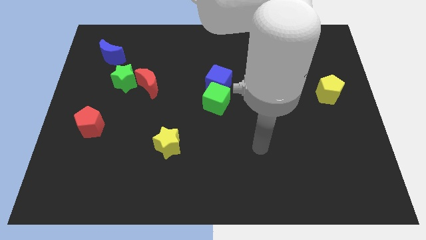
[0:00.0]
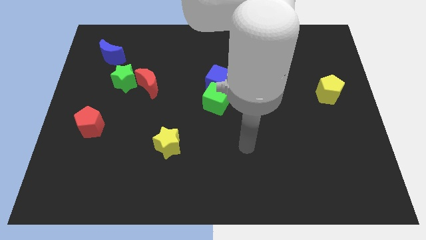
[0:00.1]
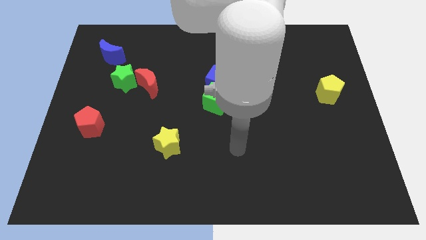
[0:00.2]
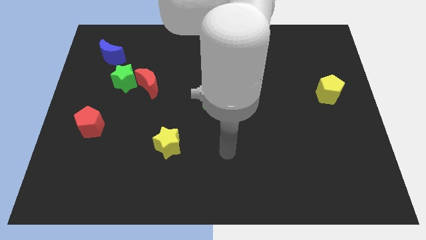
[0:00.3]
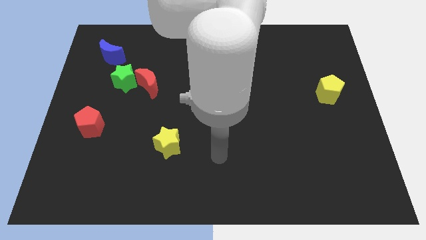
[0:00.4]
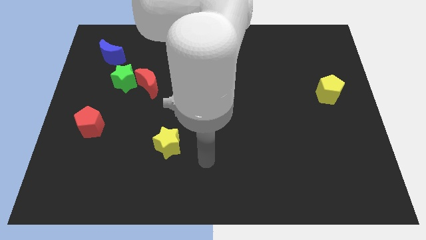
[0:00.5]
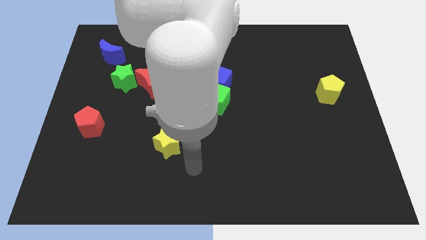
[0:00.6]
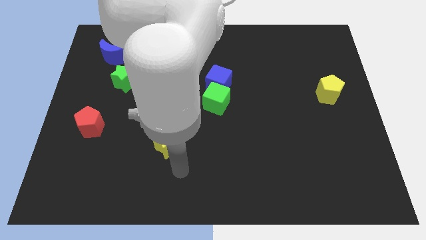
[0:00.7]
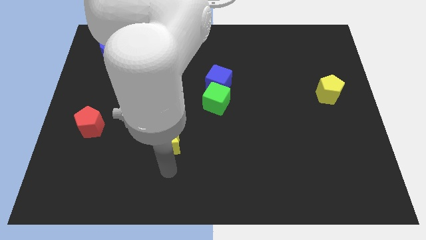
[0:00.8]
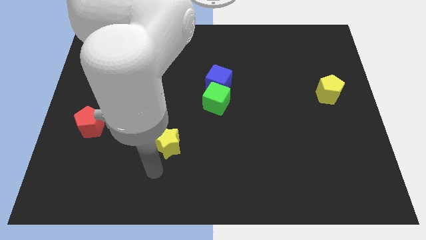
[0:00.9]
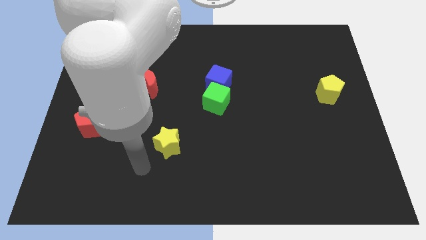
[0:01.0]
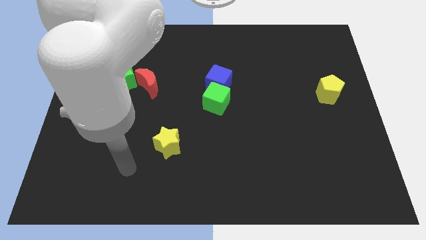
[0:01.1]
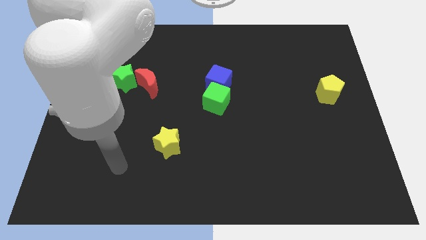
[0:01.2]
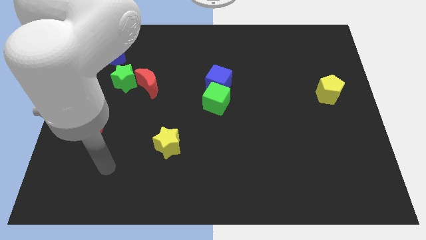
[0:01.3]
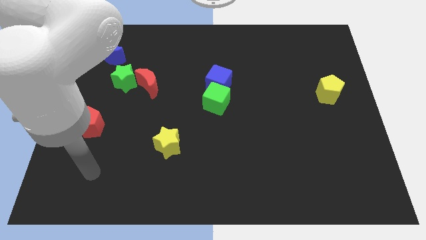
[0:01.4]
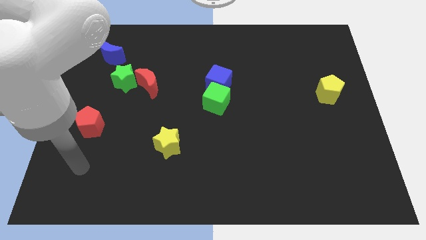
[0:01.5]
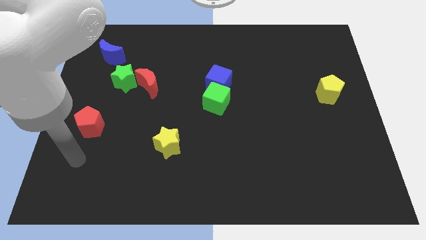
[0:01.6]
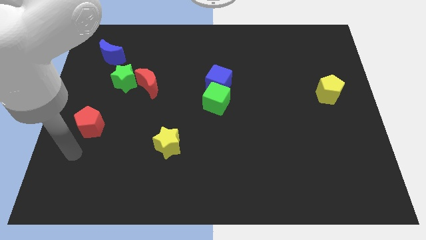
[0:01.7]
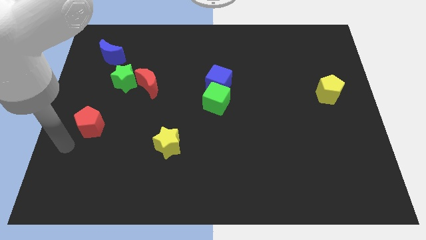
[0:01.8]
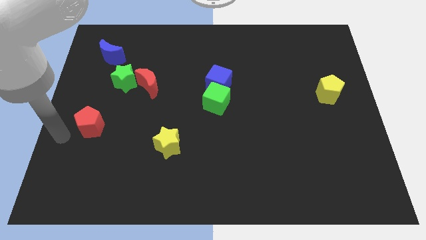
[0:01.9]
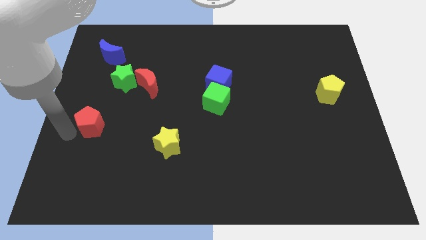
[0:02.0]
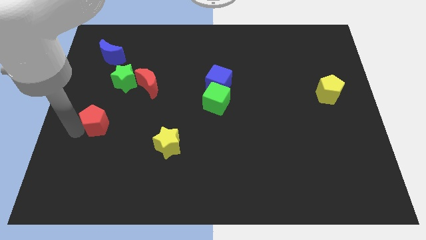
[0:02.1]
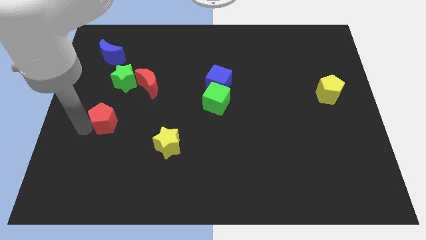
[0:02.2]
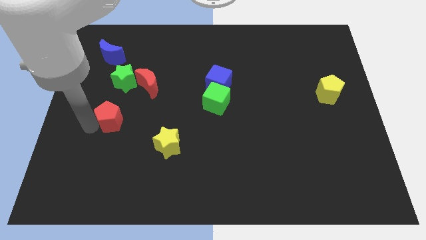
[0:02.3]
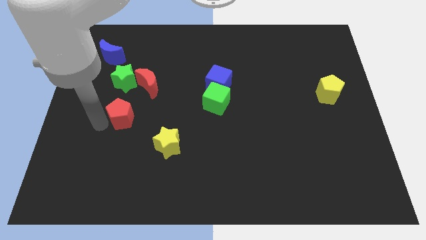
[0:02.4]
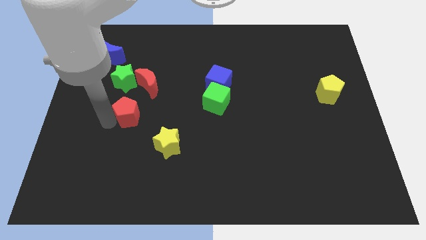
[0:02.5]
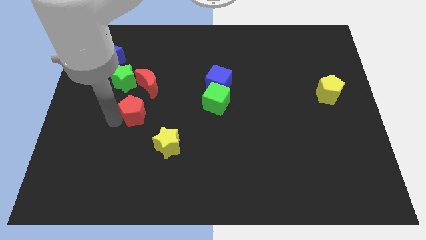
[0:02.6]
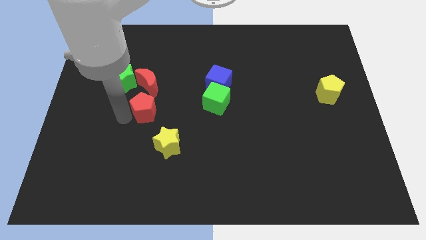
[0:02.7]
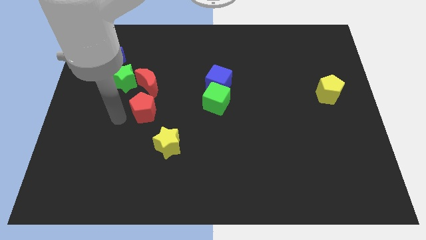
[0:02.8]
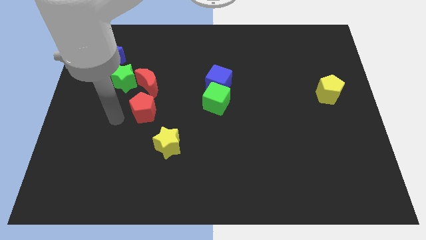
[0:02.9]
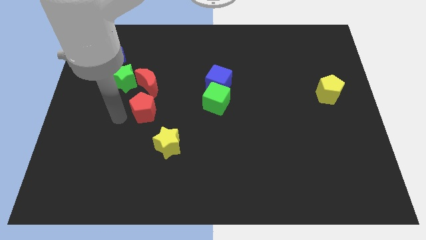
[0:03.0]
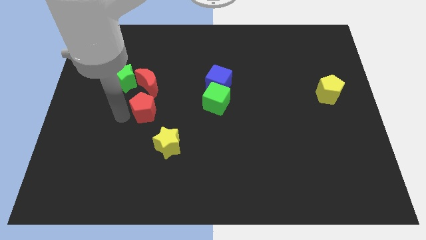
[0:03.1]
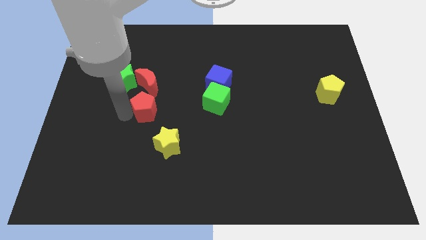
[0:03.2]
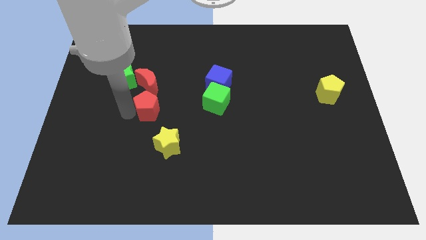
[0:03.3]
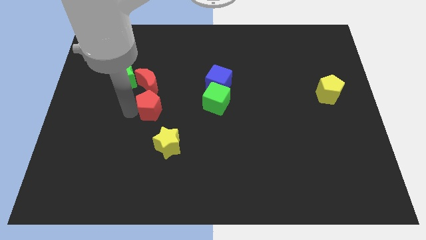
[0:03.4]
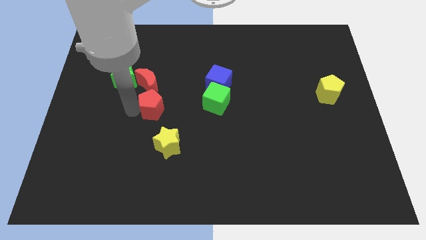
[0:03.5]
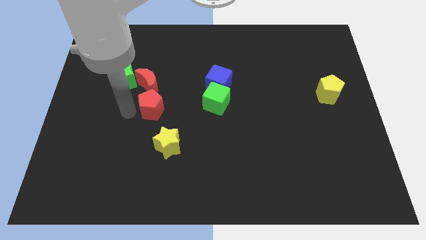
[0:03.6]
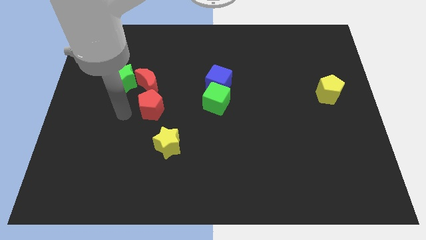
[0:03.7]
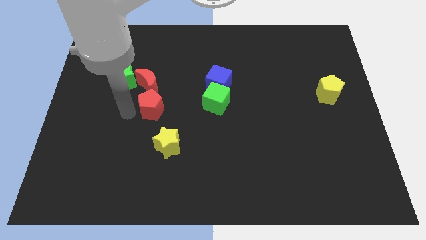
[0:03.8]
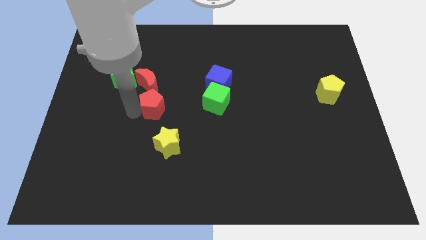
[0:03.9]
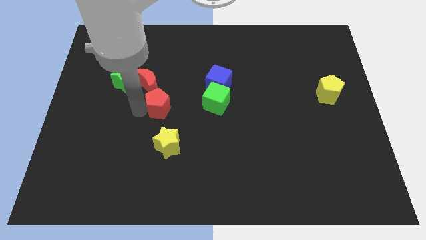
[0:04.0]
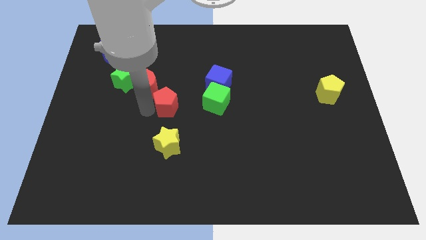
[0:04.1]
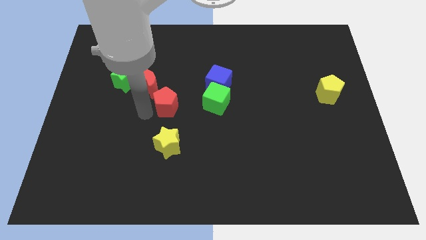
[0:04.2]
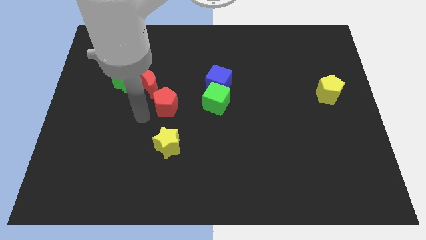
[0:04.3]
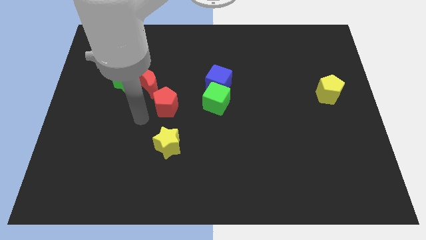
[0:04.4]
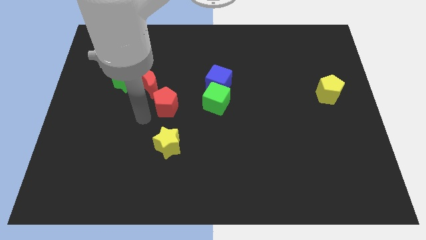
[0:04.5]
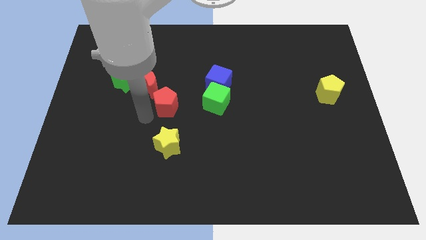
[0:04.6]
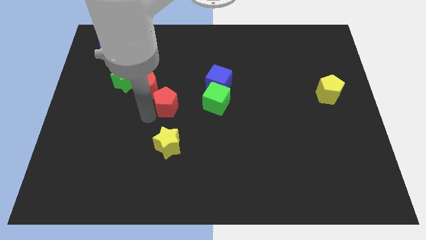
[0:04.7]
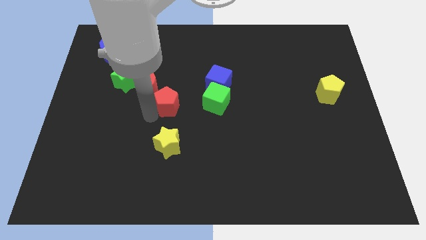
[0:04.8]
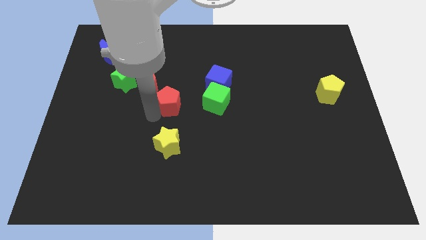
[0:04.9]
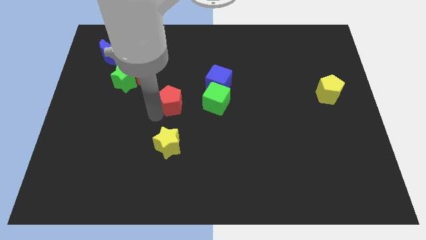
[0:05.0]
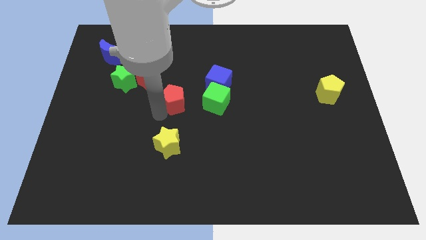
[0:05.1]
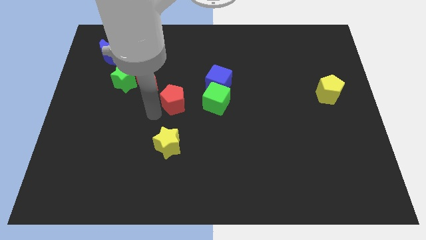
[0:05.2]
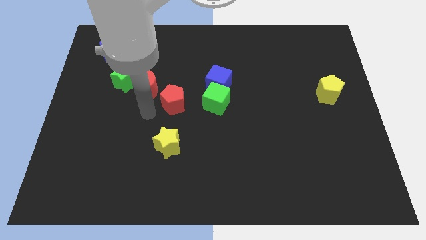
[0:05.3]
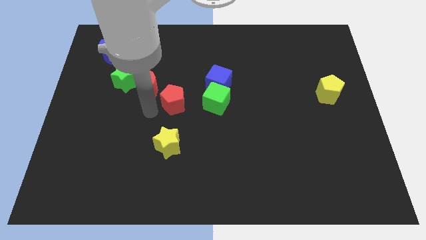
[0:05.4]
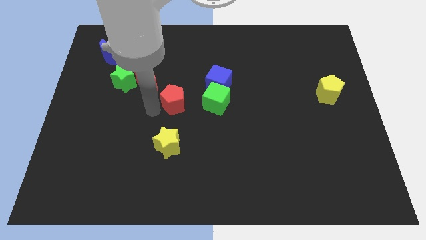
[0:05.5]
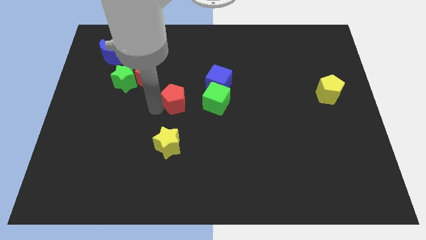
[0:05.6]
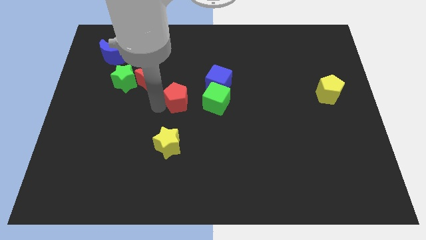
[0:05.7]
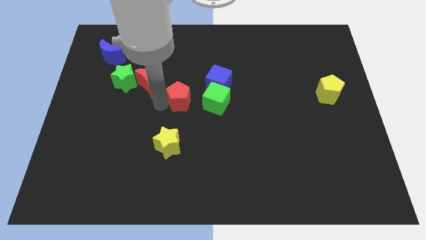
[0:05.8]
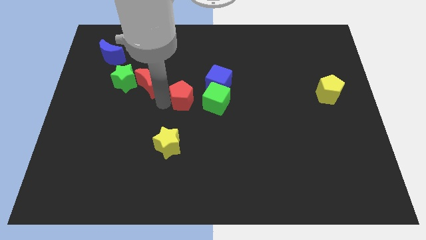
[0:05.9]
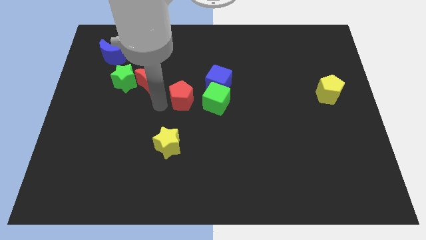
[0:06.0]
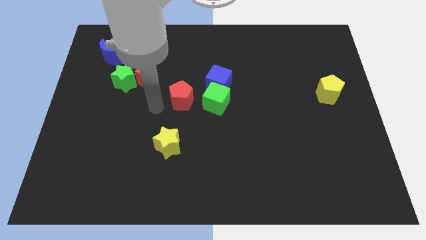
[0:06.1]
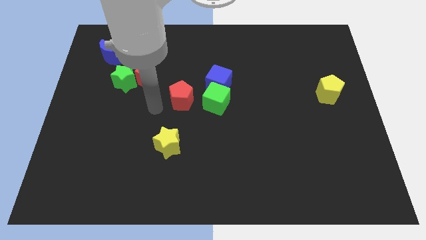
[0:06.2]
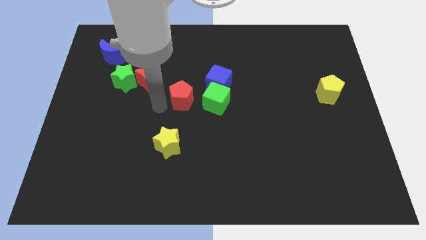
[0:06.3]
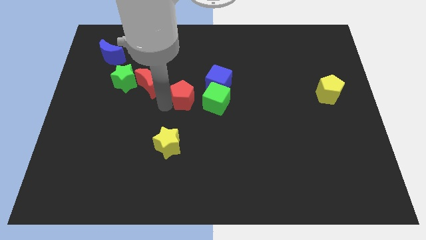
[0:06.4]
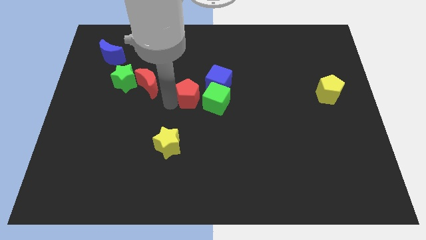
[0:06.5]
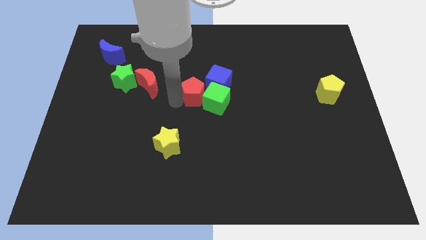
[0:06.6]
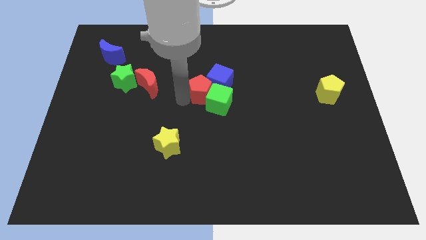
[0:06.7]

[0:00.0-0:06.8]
put the red pentagon next to the blue cube

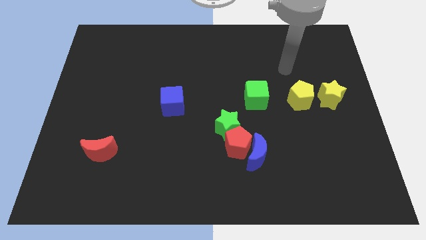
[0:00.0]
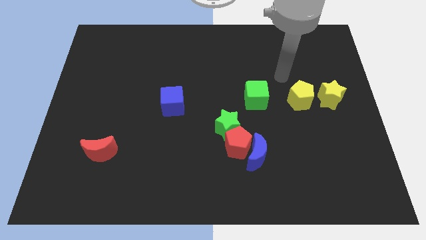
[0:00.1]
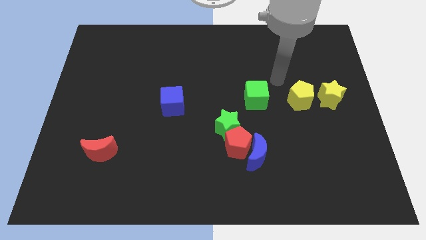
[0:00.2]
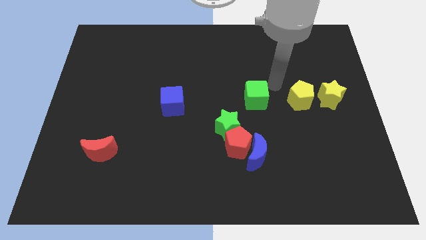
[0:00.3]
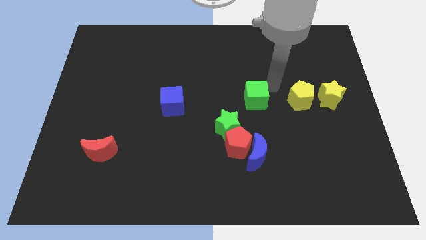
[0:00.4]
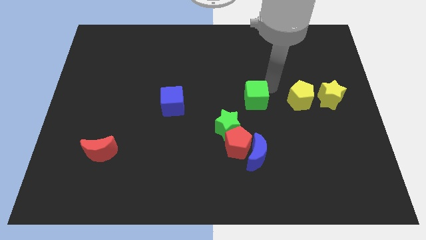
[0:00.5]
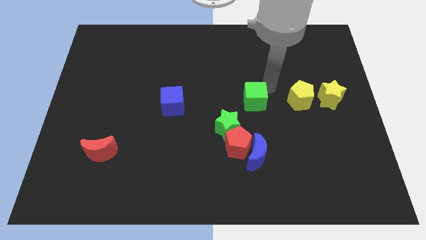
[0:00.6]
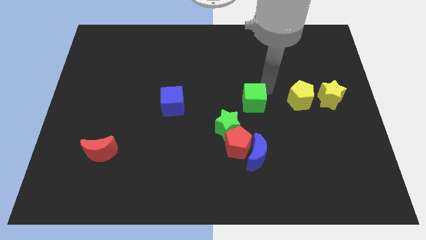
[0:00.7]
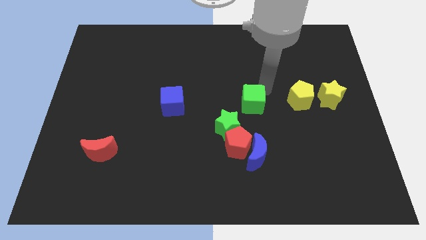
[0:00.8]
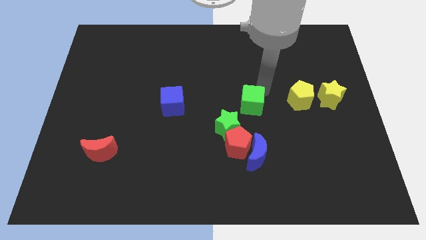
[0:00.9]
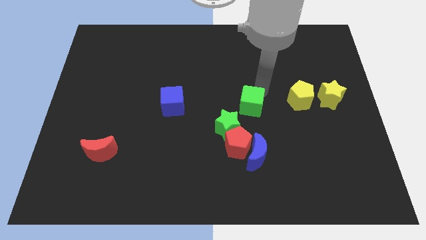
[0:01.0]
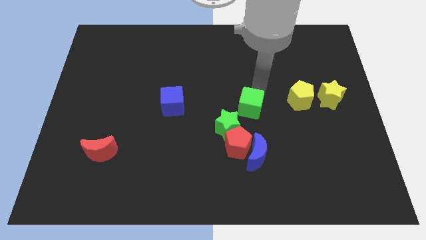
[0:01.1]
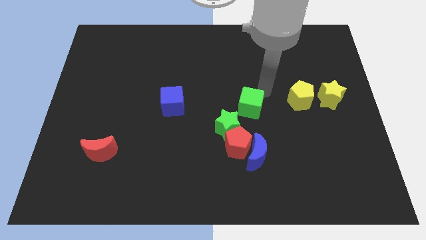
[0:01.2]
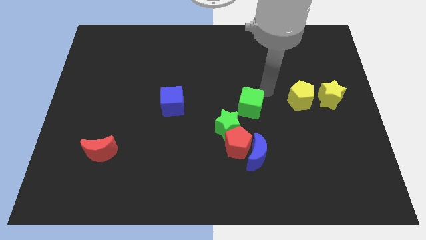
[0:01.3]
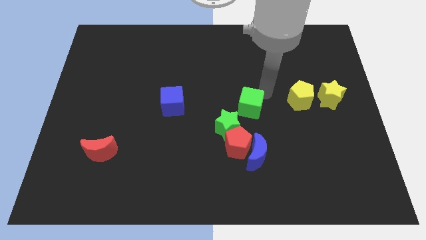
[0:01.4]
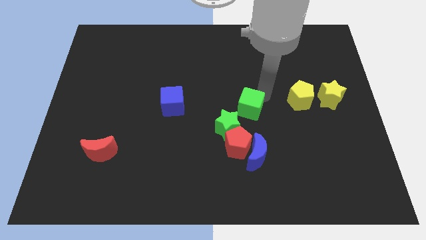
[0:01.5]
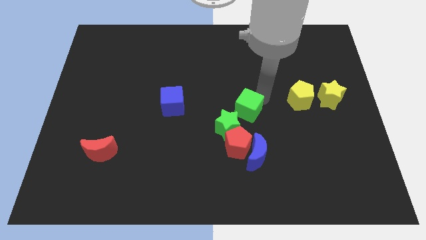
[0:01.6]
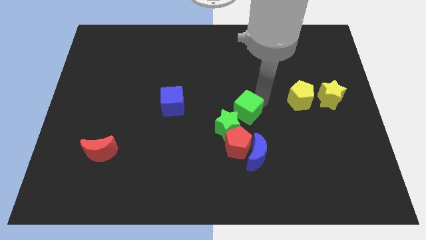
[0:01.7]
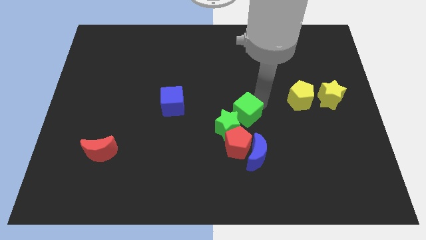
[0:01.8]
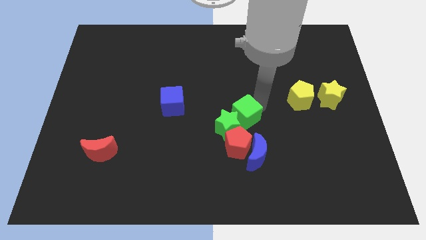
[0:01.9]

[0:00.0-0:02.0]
slide the green cube towards the green star
